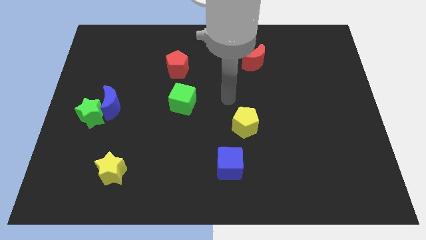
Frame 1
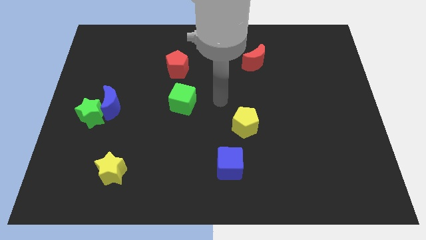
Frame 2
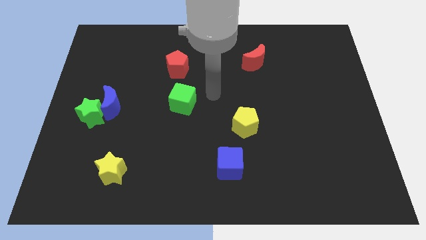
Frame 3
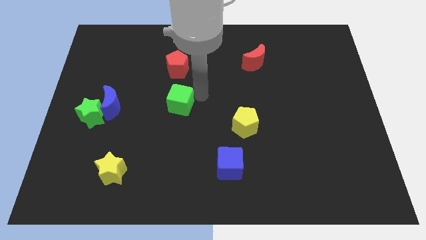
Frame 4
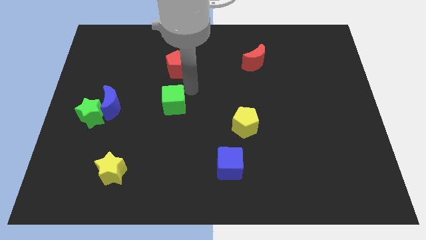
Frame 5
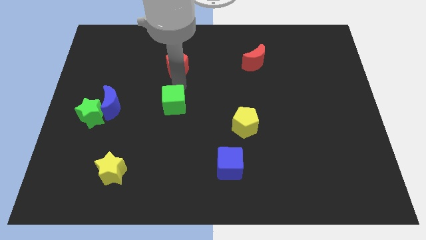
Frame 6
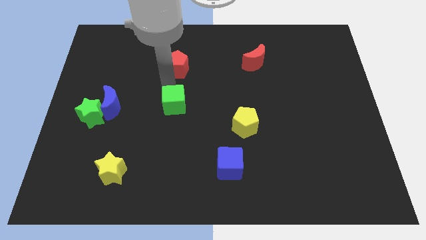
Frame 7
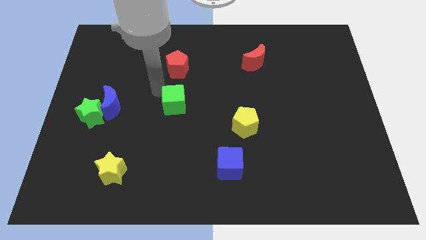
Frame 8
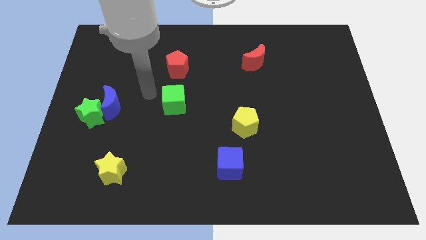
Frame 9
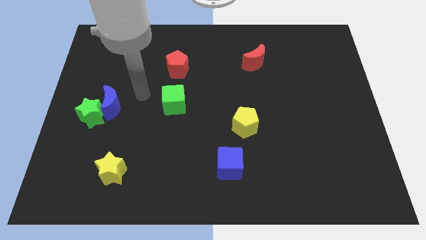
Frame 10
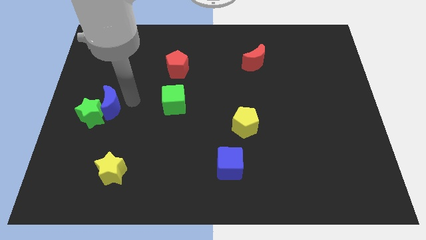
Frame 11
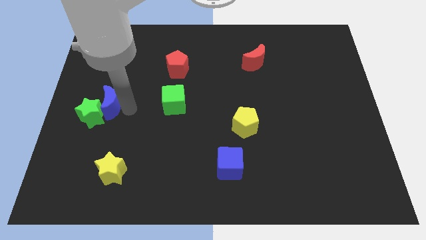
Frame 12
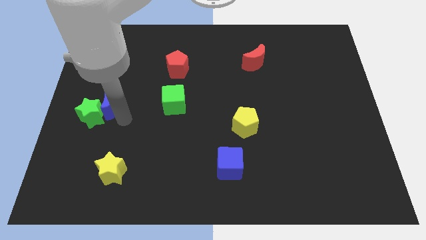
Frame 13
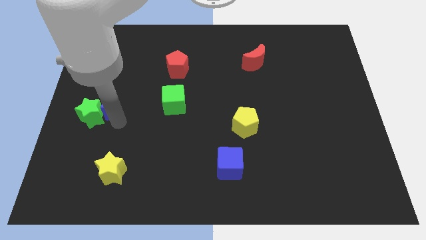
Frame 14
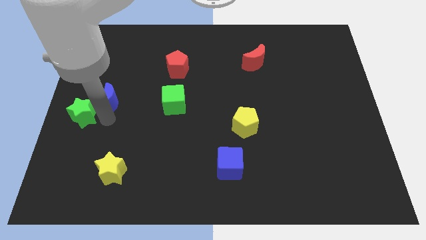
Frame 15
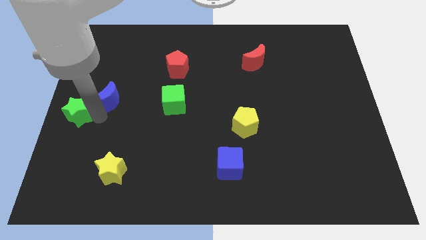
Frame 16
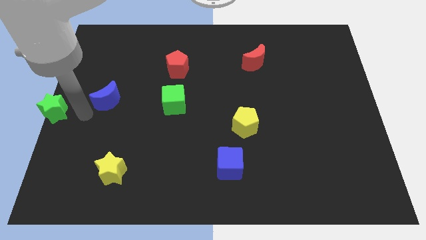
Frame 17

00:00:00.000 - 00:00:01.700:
separate the blue moon from the green star

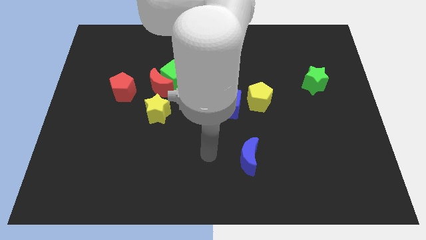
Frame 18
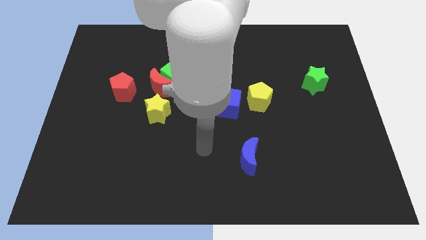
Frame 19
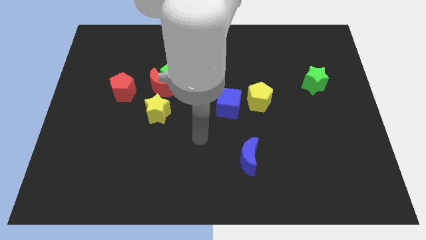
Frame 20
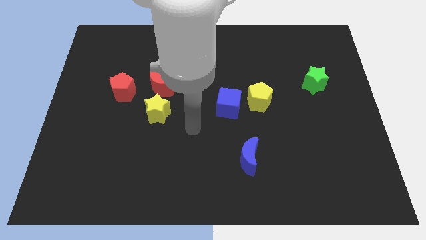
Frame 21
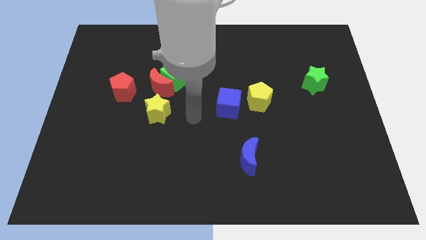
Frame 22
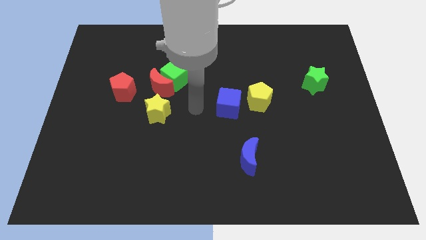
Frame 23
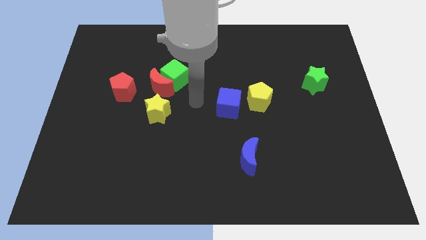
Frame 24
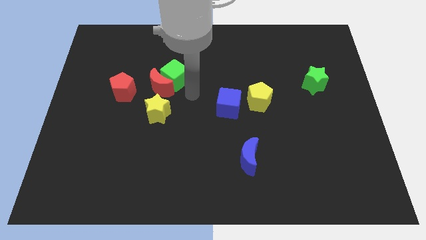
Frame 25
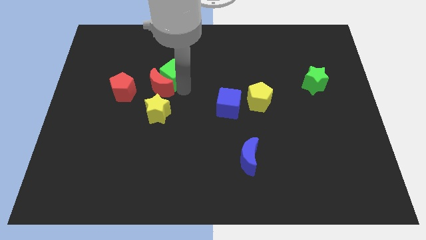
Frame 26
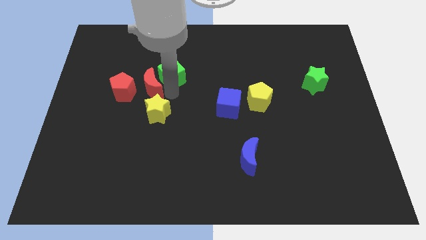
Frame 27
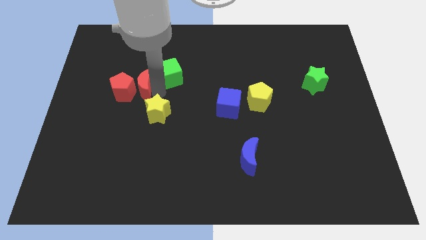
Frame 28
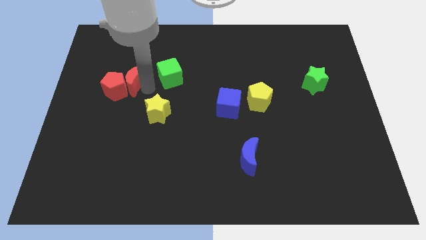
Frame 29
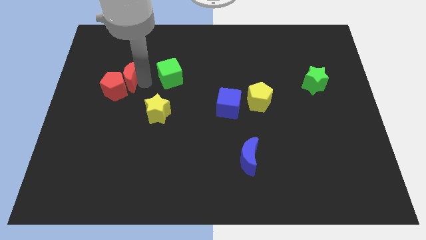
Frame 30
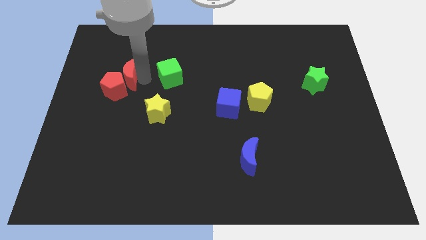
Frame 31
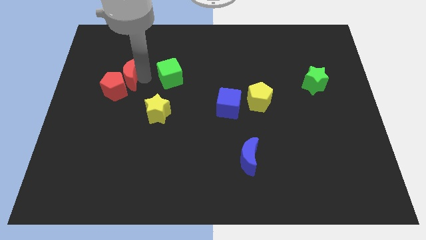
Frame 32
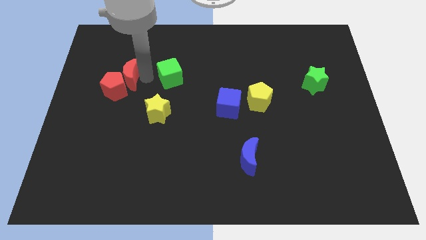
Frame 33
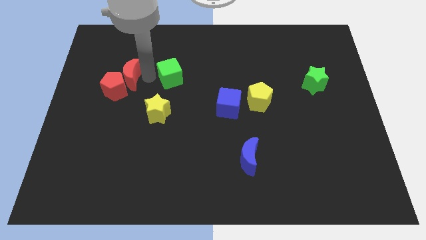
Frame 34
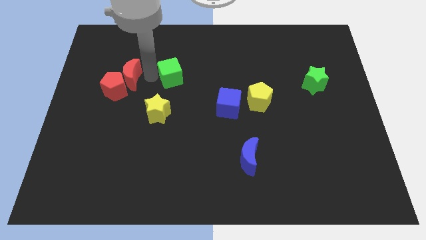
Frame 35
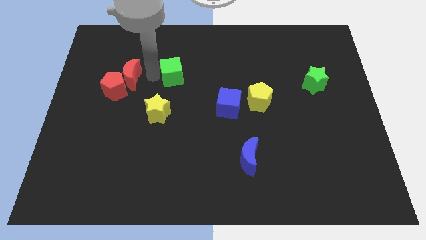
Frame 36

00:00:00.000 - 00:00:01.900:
pull the green cube apart from the red moon

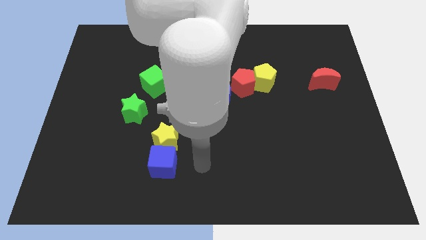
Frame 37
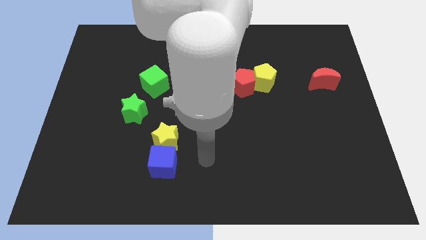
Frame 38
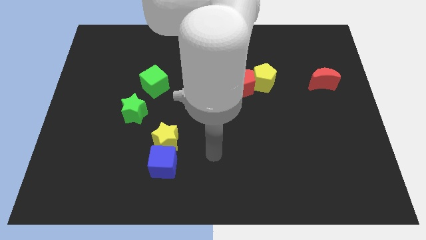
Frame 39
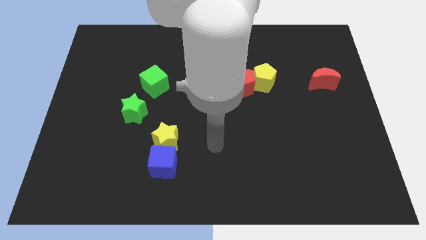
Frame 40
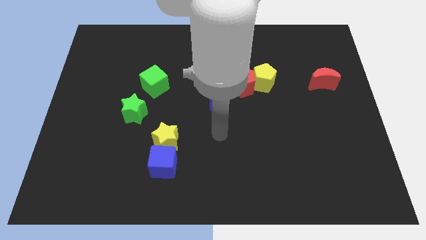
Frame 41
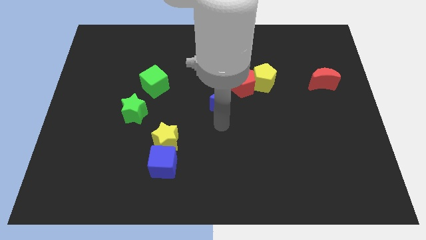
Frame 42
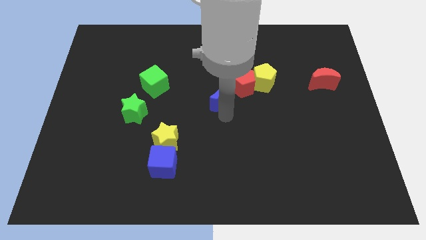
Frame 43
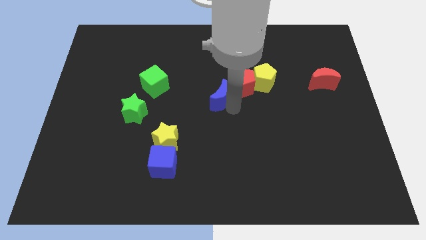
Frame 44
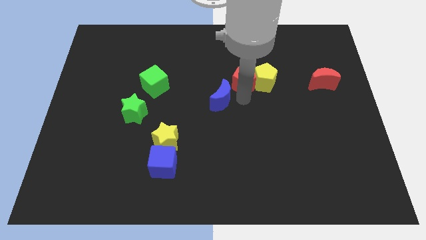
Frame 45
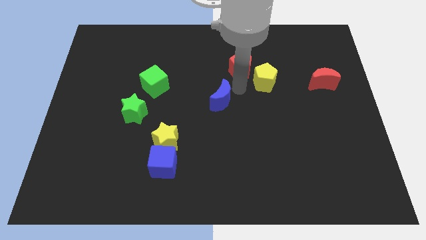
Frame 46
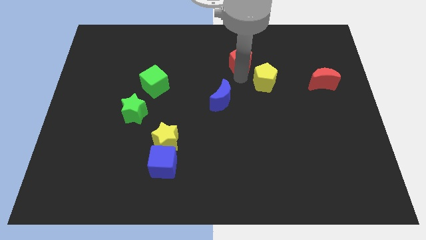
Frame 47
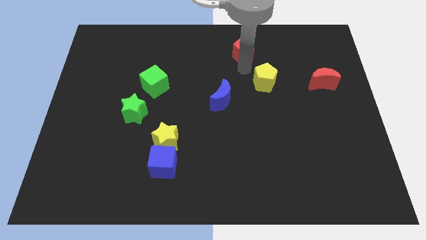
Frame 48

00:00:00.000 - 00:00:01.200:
pull the yellow pentagon apart from the red pentagon

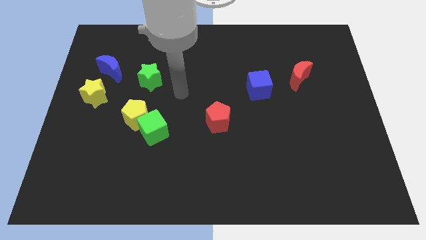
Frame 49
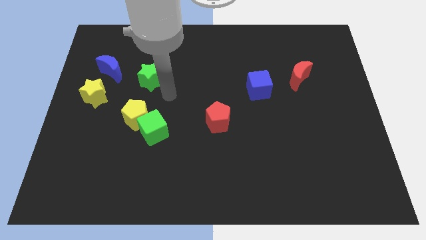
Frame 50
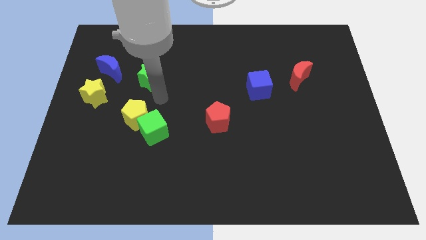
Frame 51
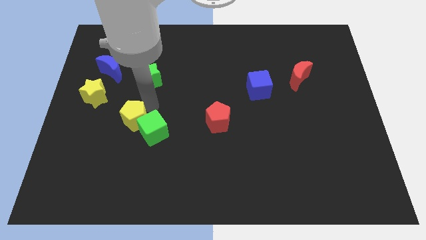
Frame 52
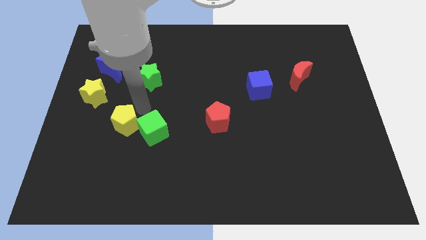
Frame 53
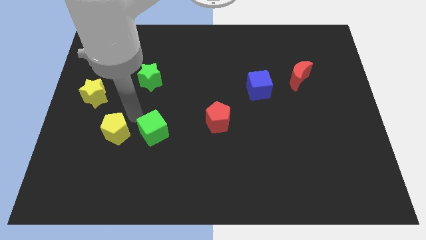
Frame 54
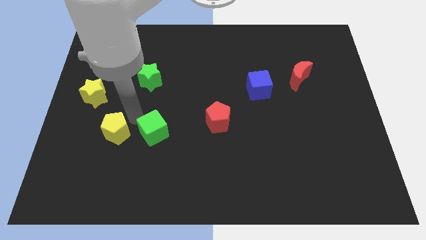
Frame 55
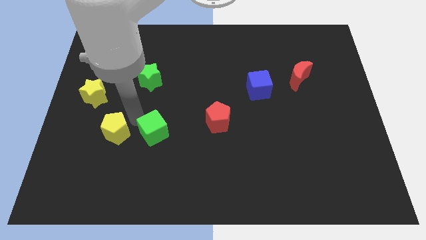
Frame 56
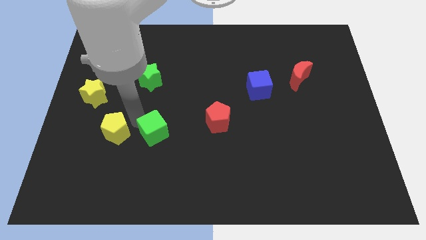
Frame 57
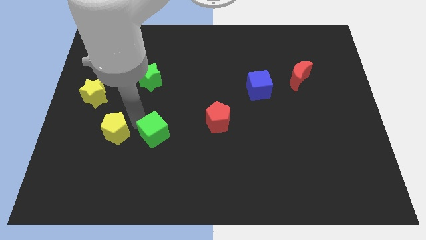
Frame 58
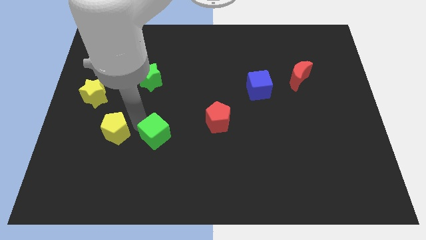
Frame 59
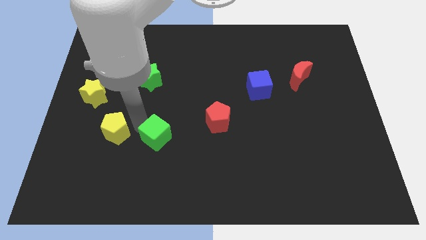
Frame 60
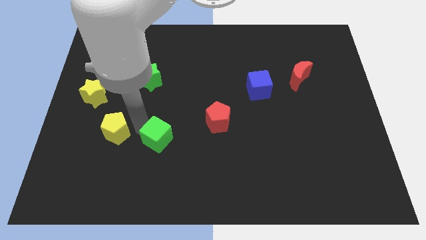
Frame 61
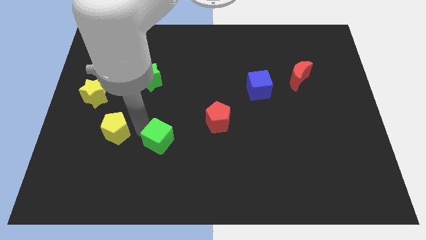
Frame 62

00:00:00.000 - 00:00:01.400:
pull the green cube apart from the yellow pentagon

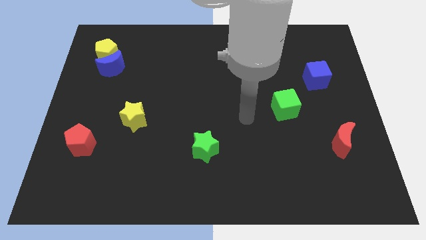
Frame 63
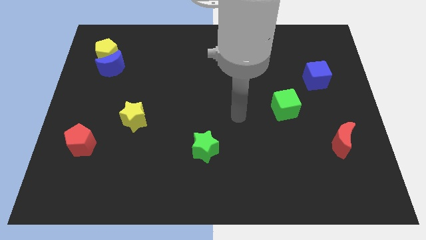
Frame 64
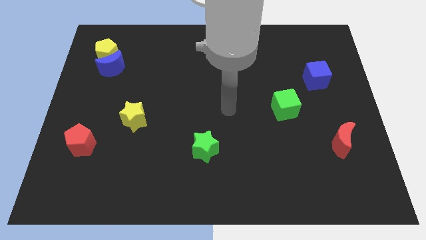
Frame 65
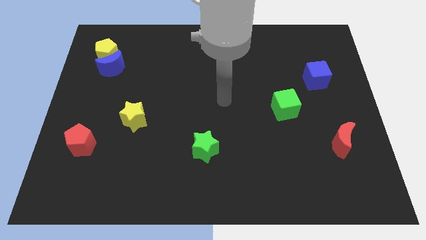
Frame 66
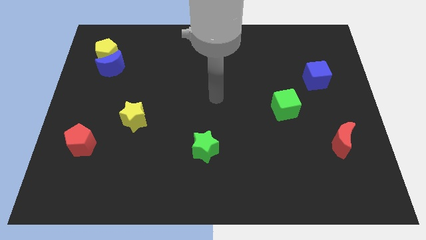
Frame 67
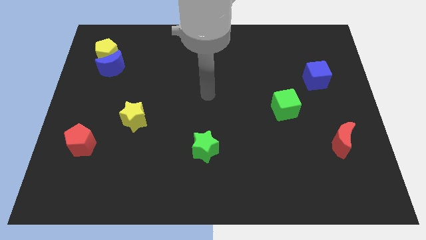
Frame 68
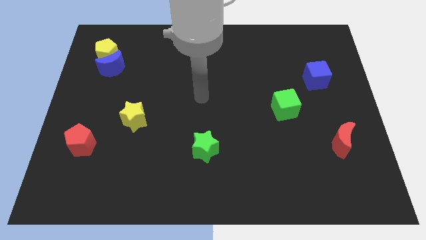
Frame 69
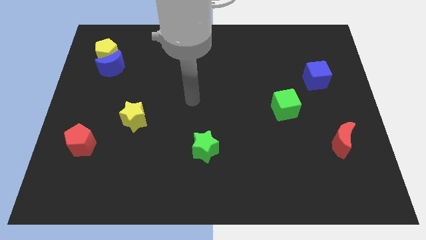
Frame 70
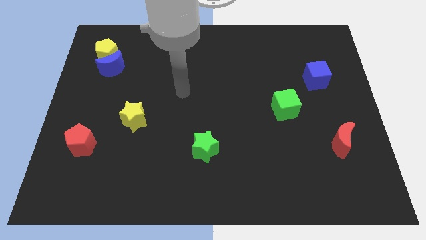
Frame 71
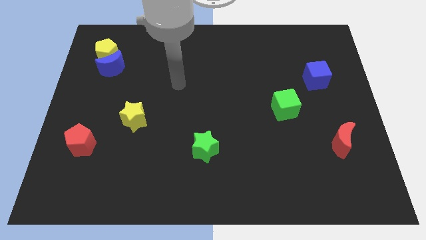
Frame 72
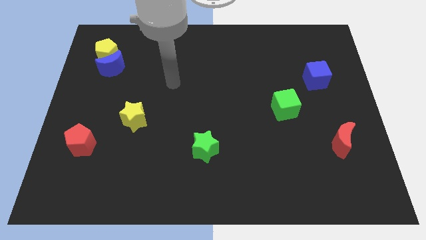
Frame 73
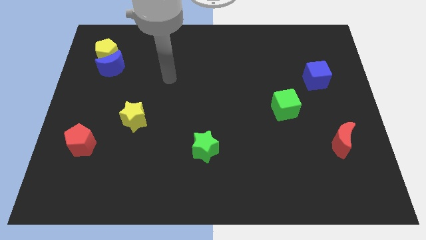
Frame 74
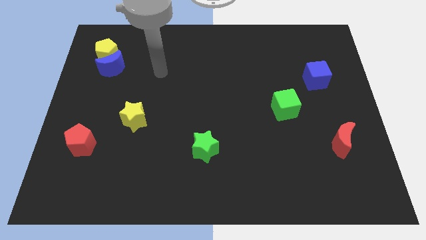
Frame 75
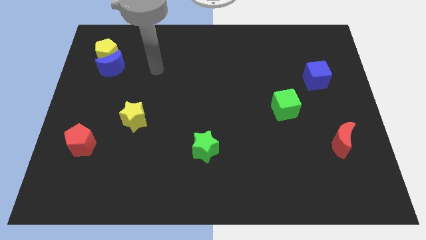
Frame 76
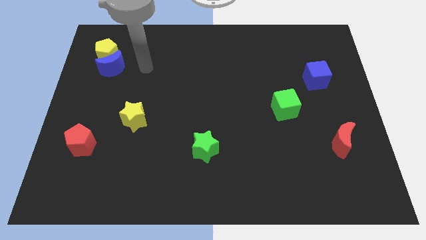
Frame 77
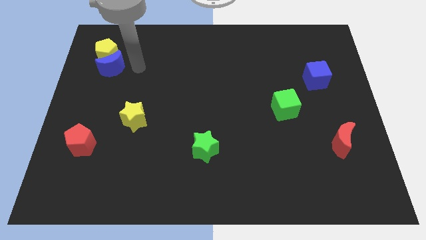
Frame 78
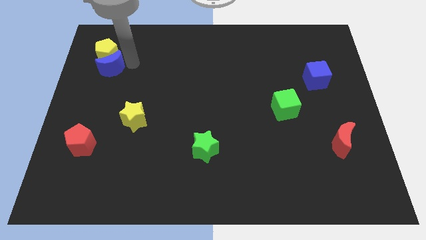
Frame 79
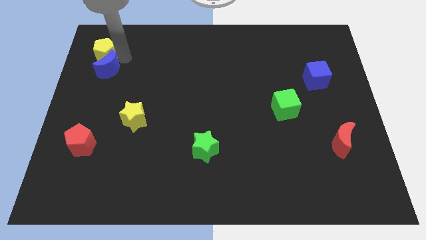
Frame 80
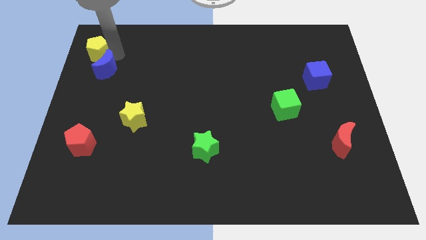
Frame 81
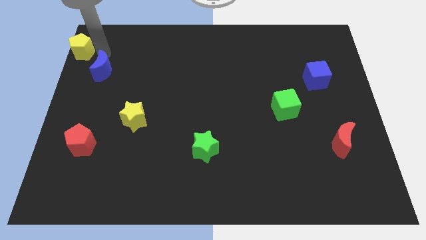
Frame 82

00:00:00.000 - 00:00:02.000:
separate the blue moon from the yellow pentagon

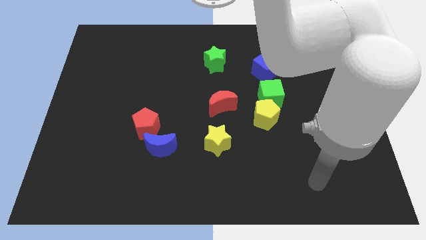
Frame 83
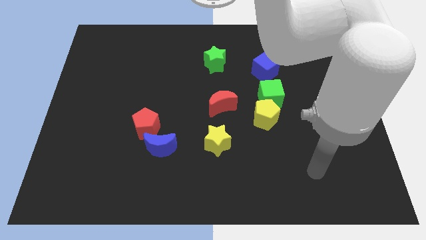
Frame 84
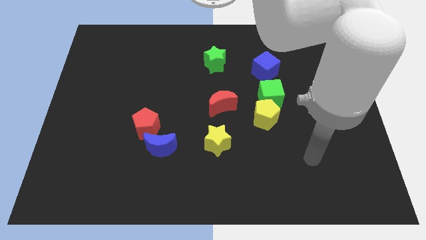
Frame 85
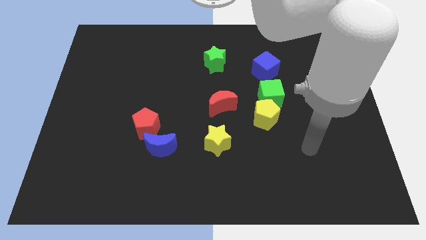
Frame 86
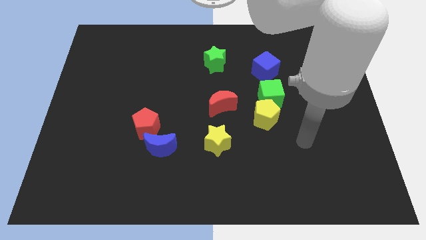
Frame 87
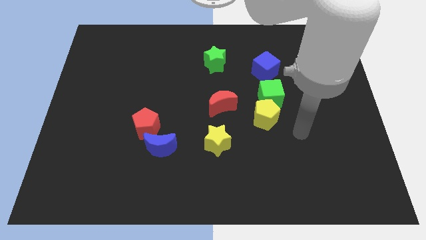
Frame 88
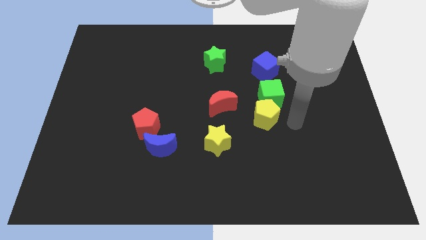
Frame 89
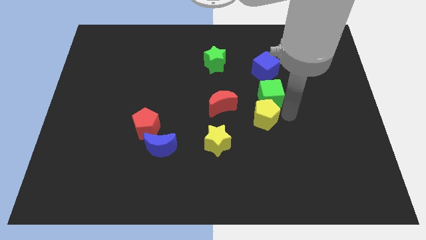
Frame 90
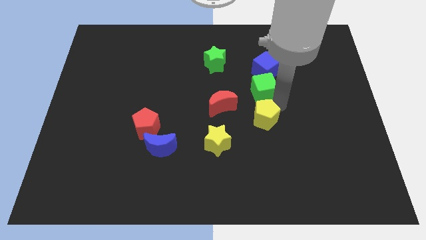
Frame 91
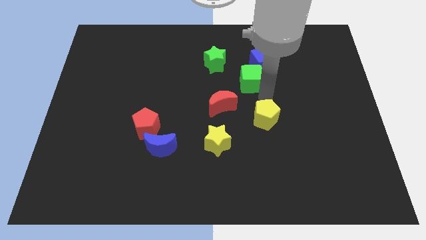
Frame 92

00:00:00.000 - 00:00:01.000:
move the yellow pentagon away from the green cube

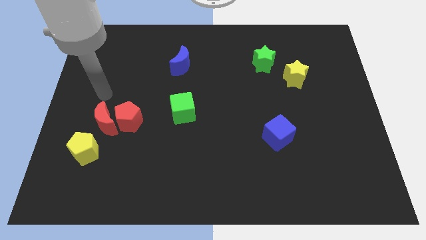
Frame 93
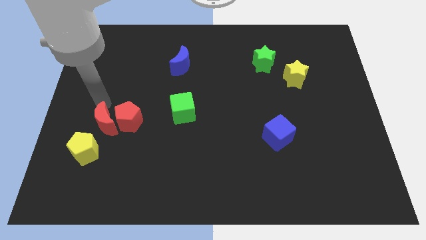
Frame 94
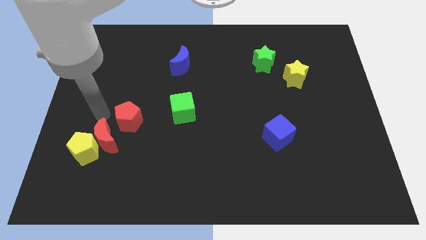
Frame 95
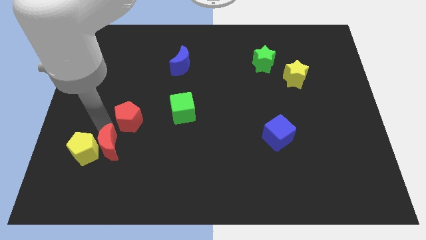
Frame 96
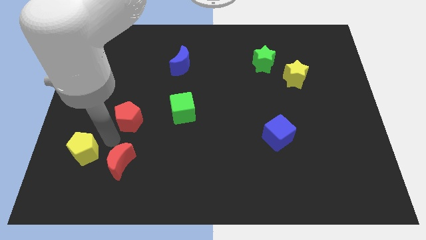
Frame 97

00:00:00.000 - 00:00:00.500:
separate the red pentagon from the red moon
